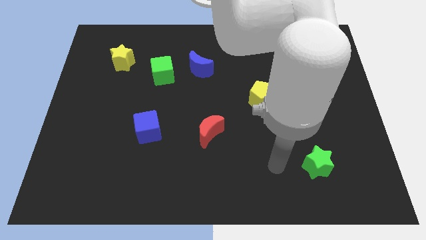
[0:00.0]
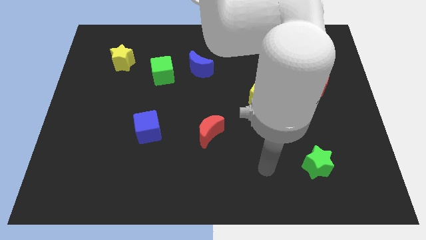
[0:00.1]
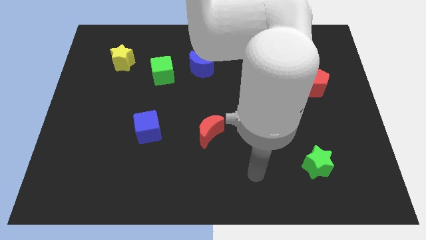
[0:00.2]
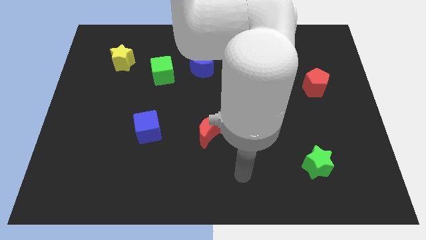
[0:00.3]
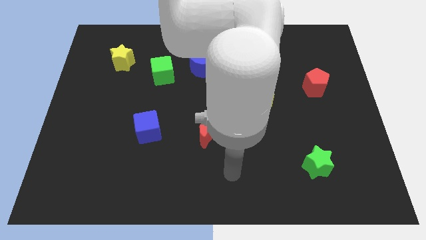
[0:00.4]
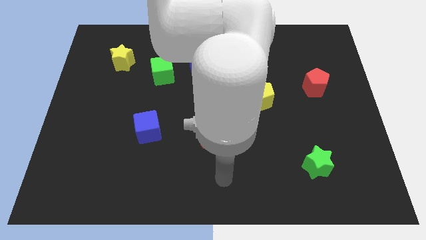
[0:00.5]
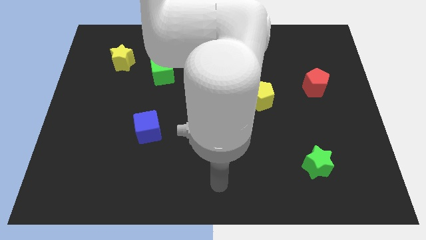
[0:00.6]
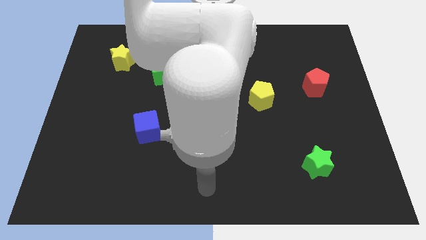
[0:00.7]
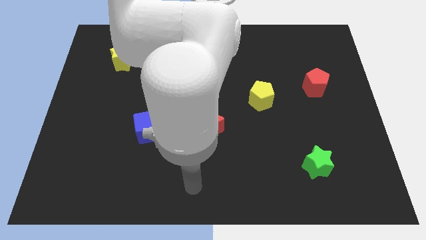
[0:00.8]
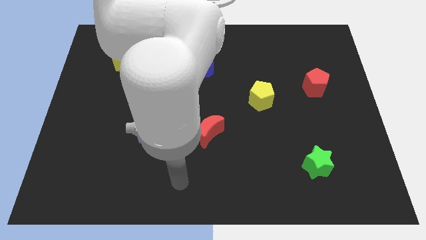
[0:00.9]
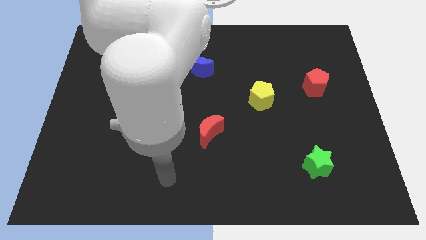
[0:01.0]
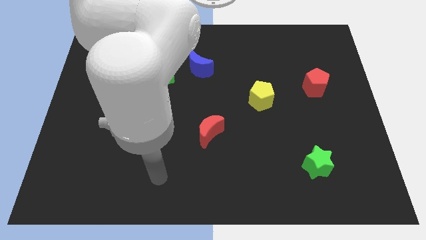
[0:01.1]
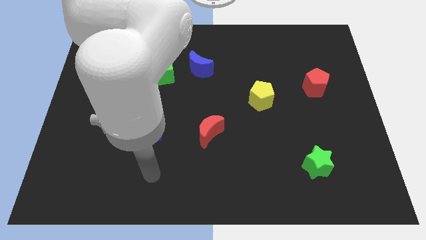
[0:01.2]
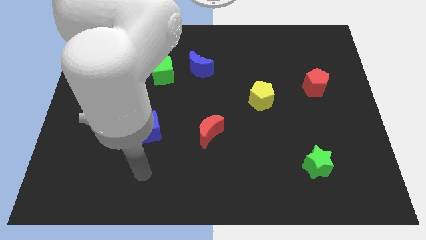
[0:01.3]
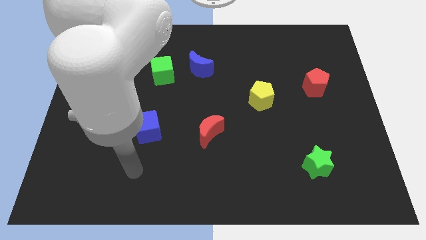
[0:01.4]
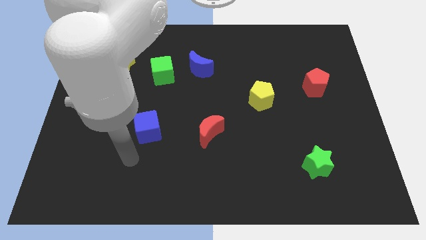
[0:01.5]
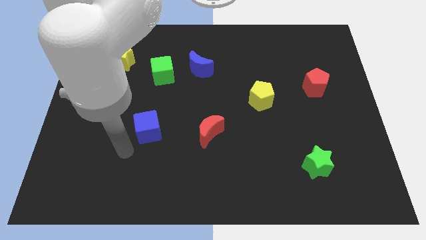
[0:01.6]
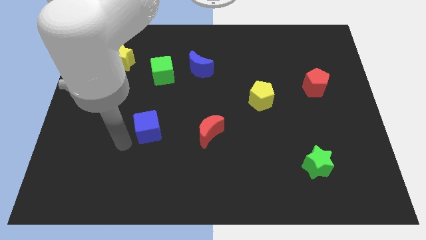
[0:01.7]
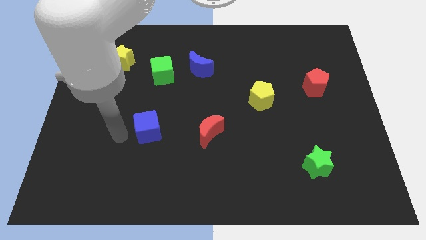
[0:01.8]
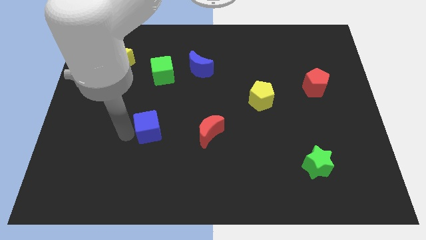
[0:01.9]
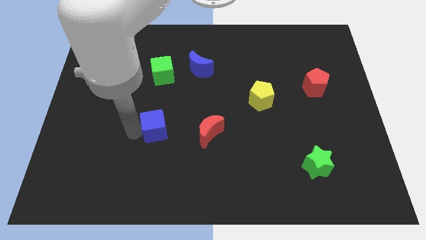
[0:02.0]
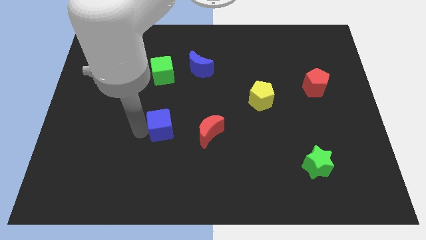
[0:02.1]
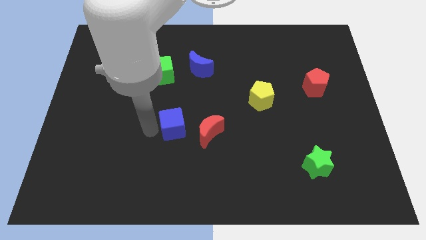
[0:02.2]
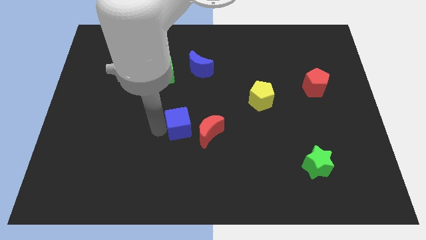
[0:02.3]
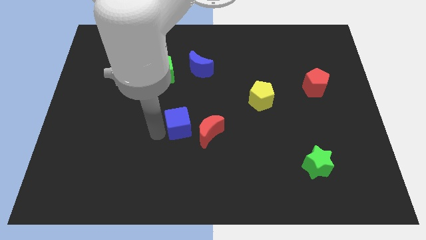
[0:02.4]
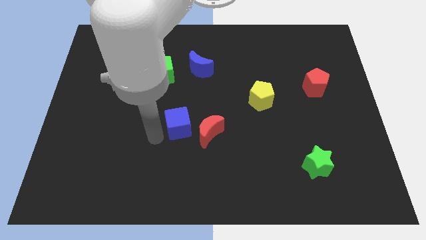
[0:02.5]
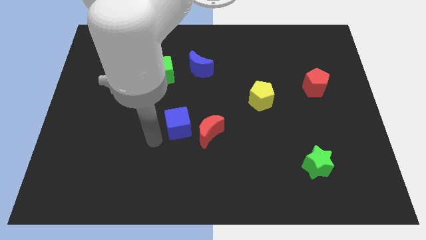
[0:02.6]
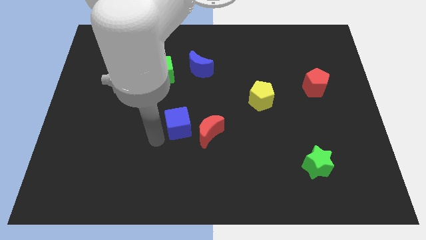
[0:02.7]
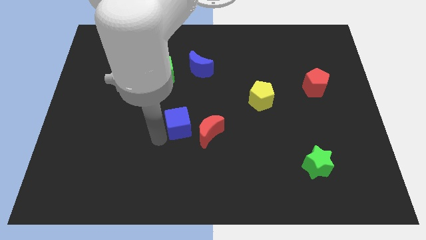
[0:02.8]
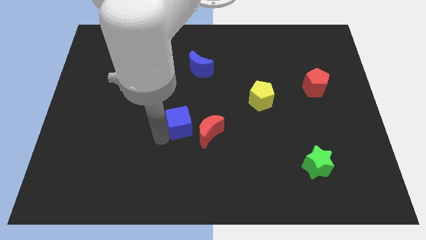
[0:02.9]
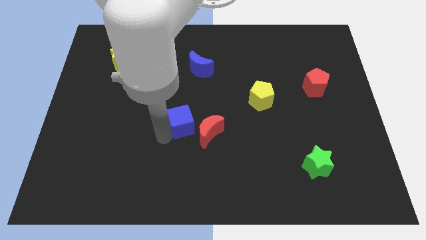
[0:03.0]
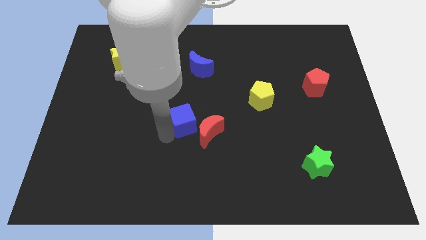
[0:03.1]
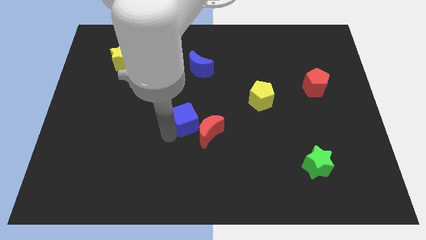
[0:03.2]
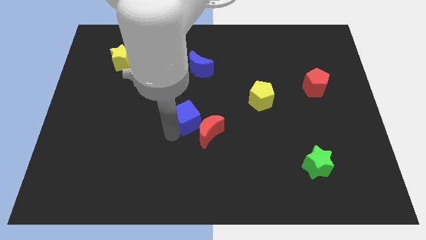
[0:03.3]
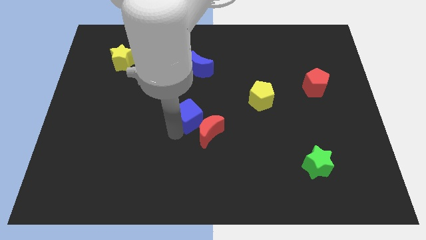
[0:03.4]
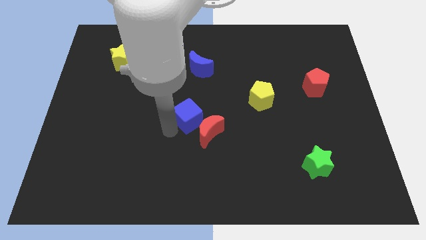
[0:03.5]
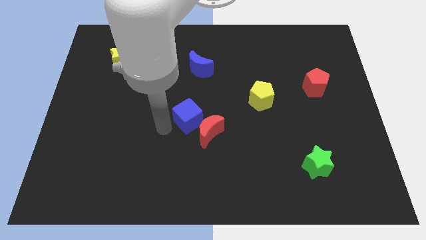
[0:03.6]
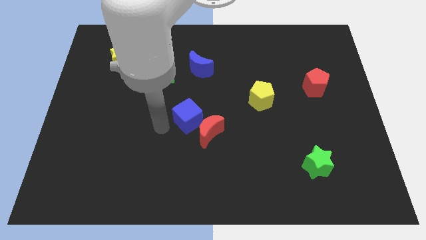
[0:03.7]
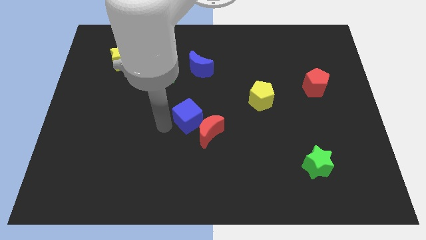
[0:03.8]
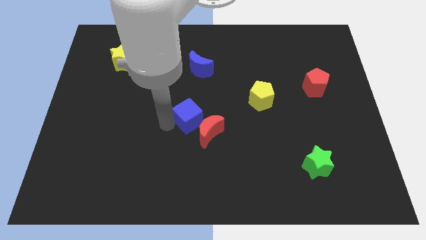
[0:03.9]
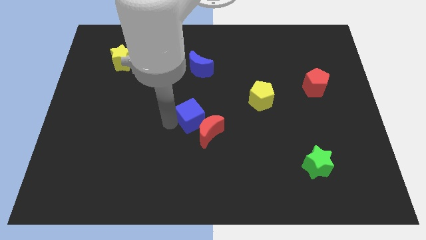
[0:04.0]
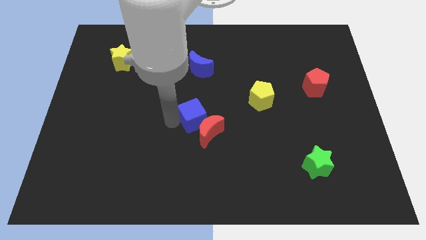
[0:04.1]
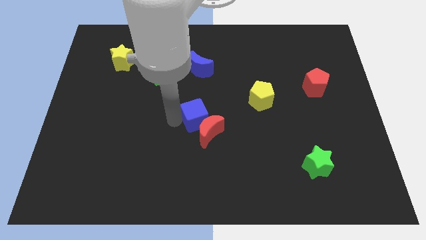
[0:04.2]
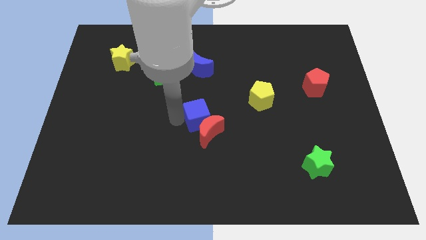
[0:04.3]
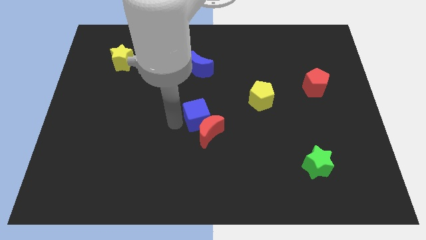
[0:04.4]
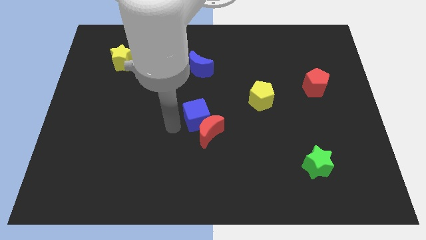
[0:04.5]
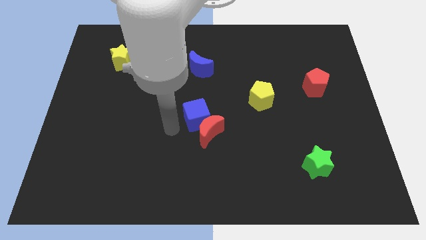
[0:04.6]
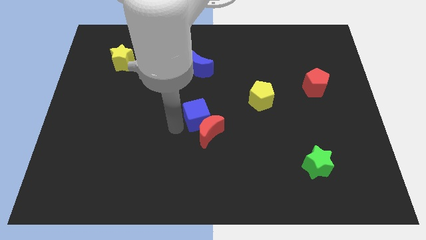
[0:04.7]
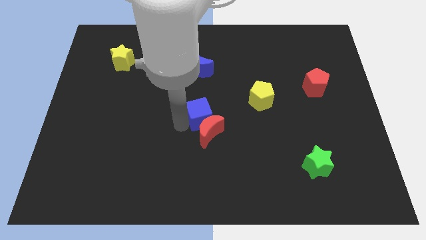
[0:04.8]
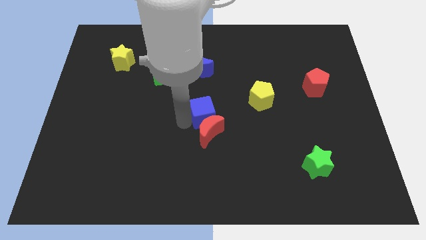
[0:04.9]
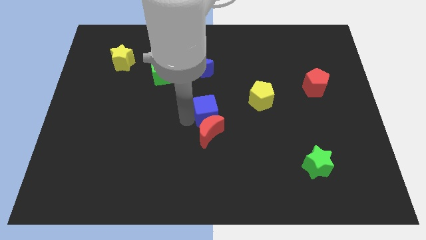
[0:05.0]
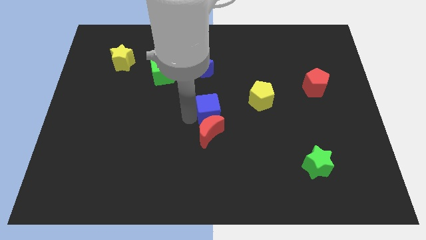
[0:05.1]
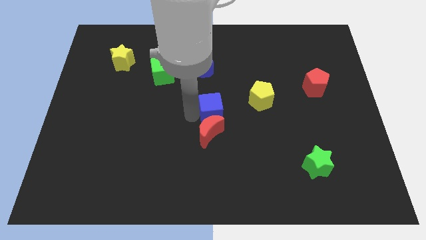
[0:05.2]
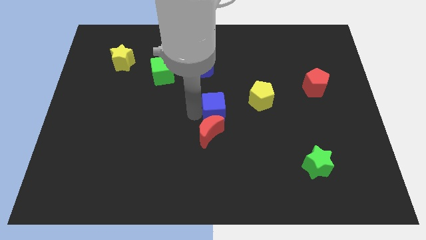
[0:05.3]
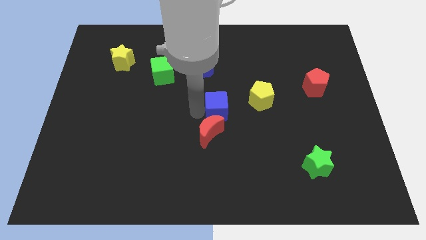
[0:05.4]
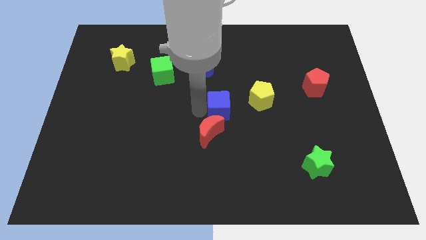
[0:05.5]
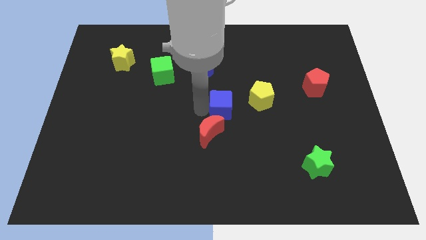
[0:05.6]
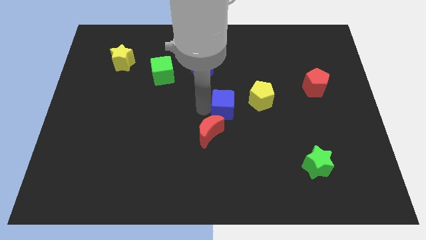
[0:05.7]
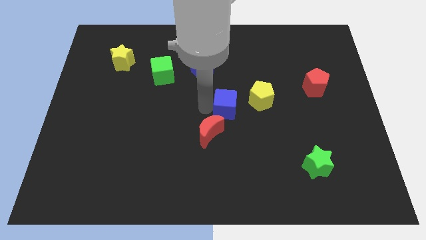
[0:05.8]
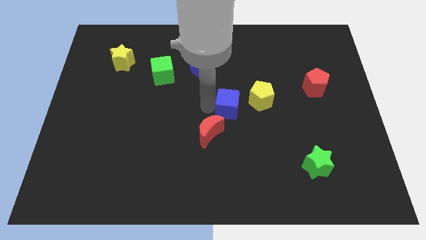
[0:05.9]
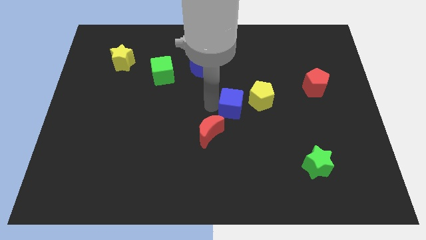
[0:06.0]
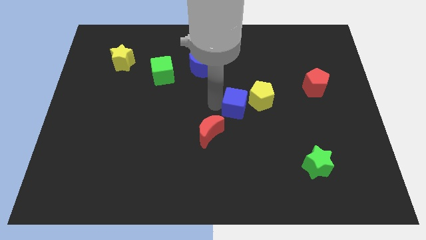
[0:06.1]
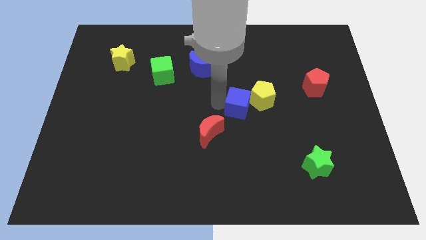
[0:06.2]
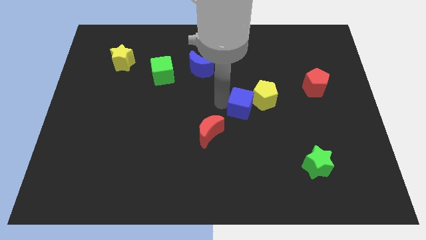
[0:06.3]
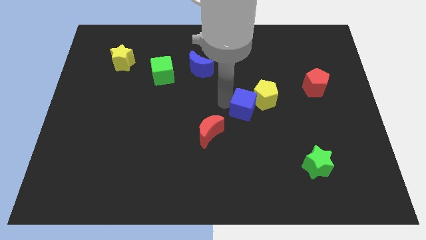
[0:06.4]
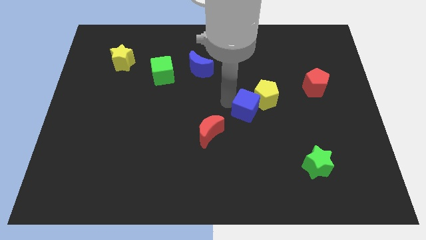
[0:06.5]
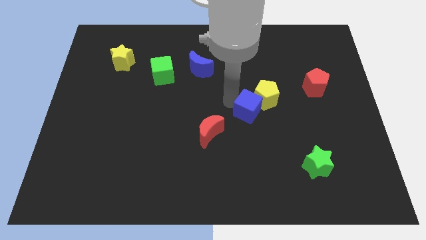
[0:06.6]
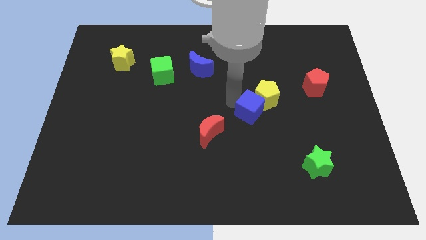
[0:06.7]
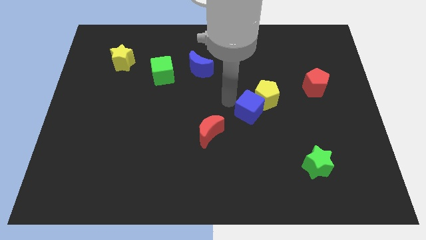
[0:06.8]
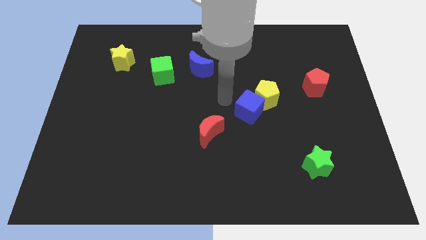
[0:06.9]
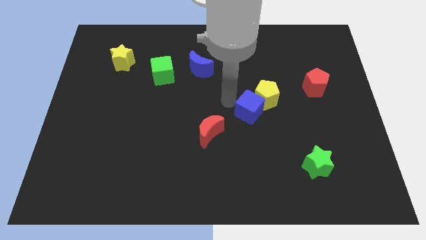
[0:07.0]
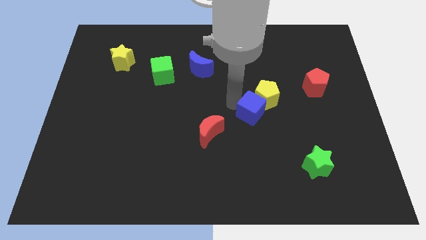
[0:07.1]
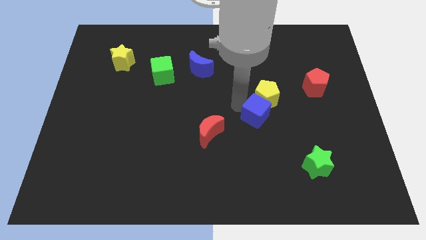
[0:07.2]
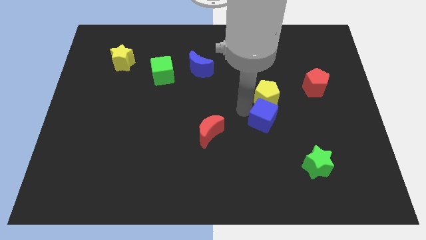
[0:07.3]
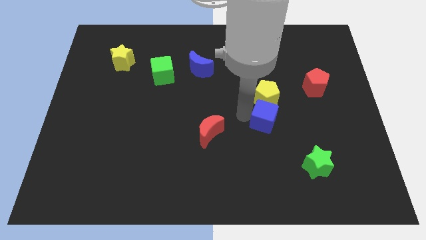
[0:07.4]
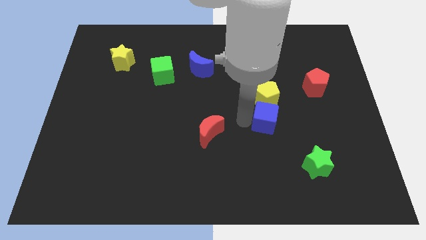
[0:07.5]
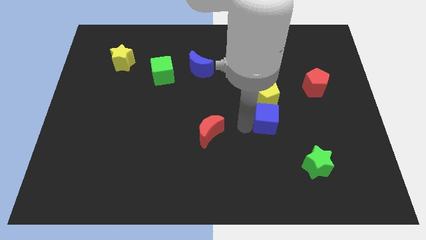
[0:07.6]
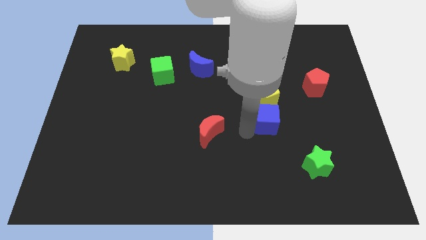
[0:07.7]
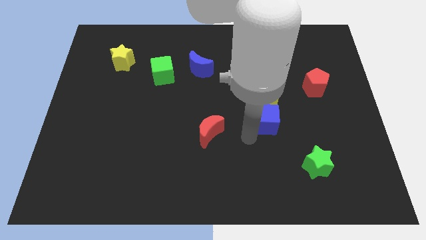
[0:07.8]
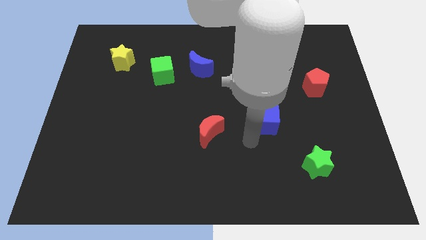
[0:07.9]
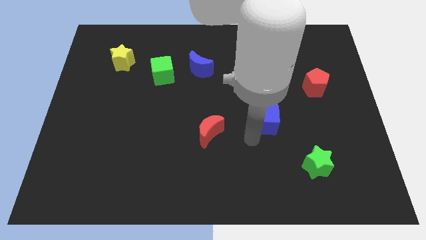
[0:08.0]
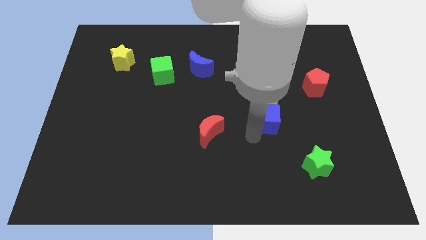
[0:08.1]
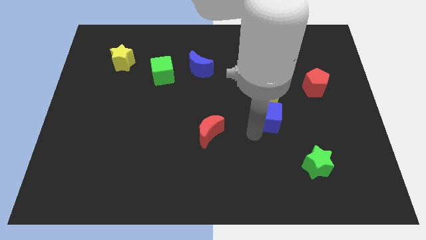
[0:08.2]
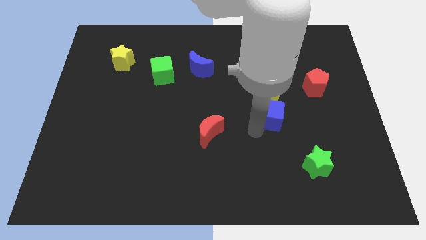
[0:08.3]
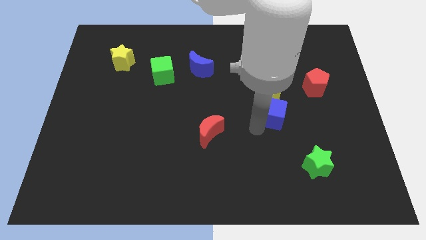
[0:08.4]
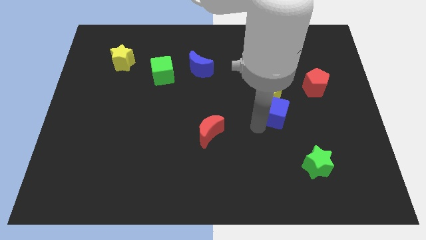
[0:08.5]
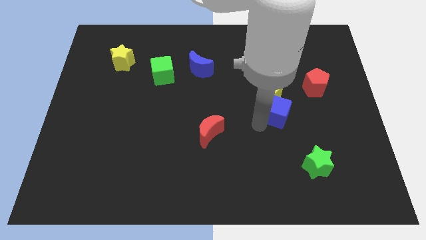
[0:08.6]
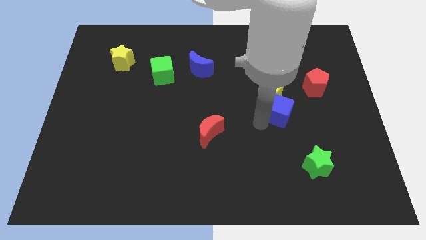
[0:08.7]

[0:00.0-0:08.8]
slide the blue cube to the bottom left side of the red pentagon
